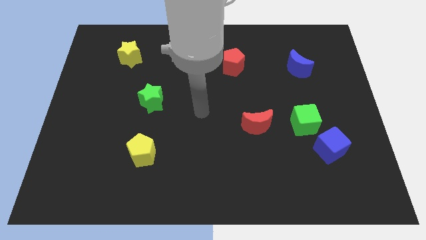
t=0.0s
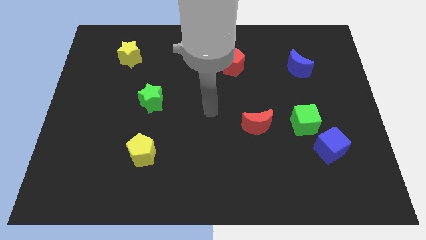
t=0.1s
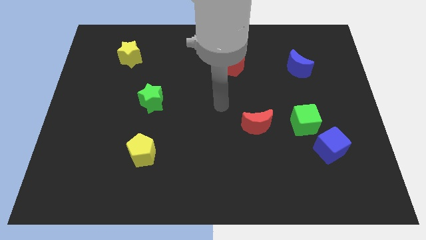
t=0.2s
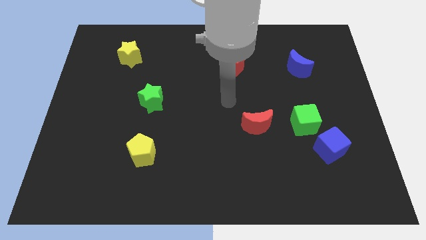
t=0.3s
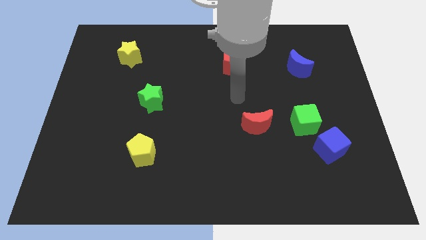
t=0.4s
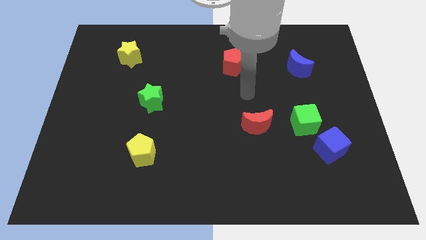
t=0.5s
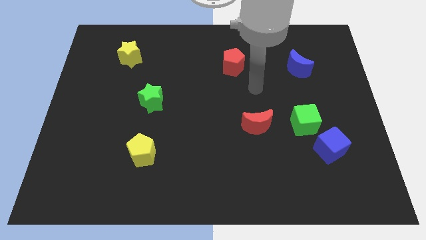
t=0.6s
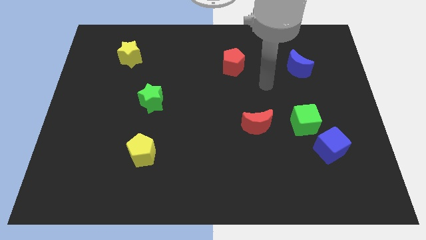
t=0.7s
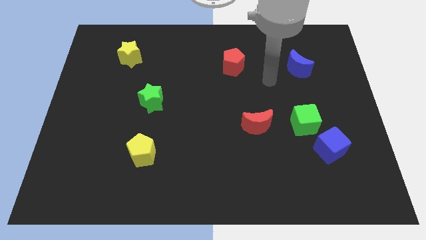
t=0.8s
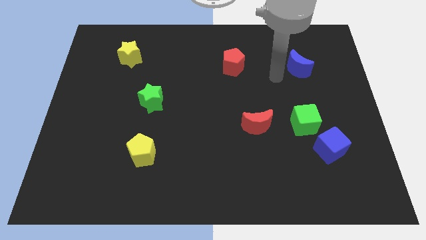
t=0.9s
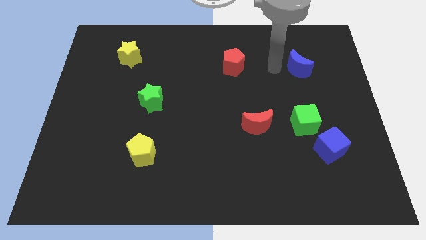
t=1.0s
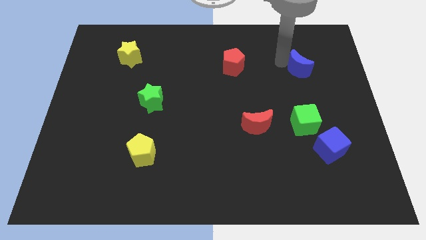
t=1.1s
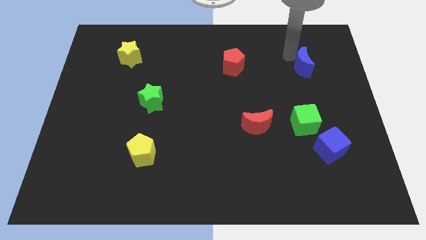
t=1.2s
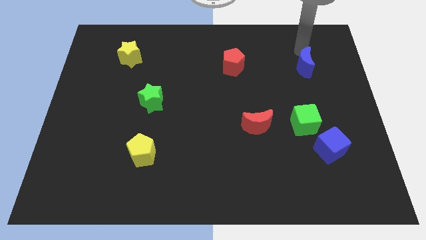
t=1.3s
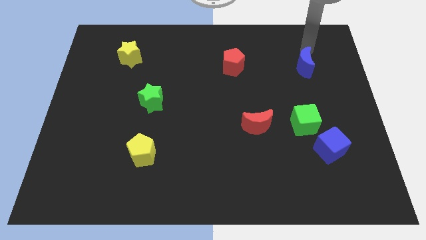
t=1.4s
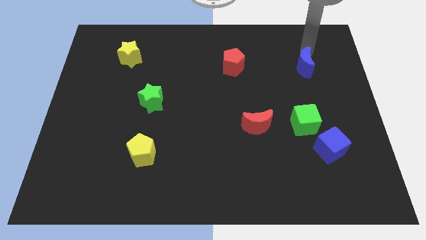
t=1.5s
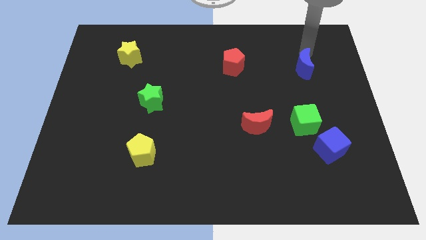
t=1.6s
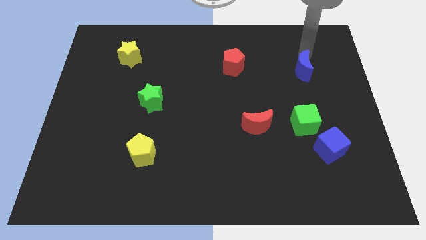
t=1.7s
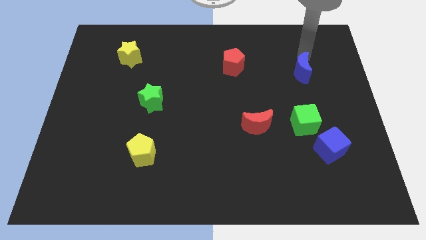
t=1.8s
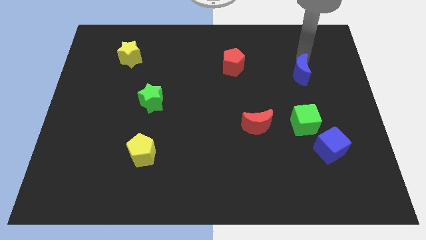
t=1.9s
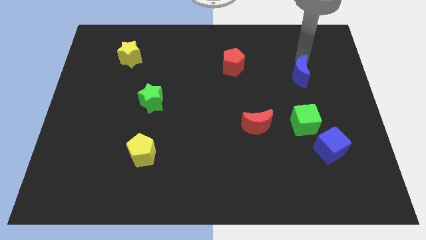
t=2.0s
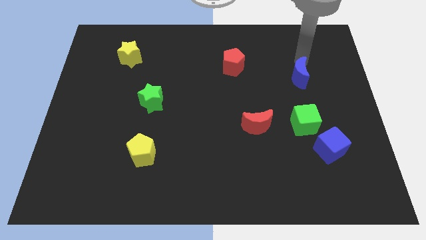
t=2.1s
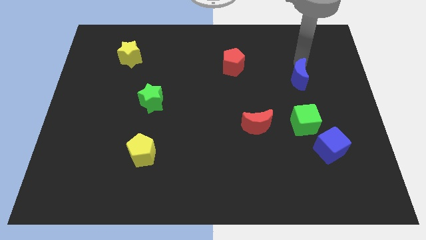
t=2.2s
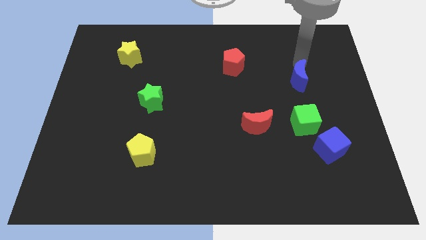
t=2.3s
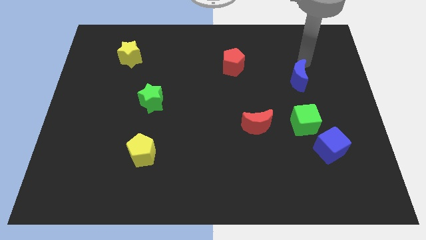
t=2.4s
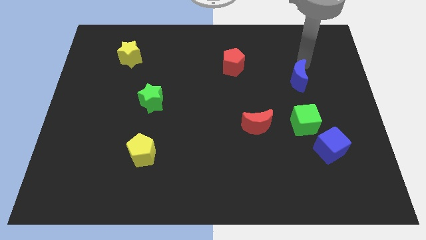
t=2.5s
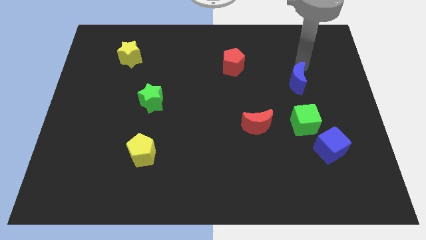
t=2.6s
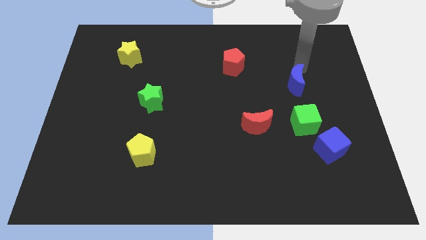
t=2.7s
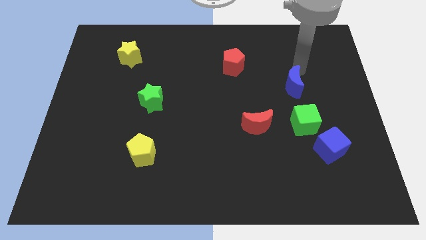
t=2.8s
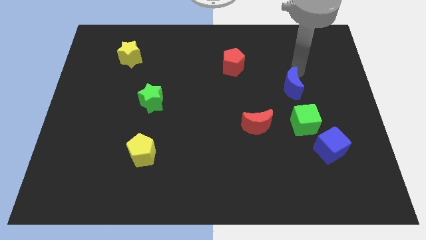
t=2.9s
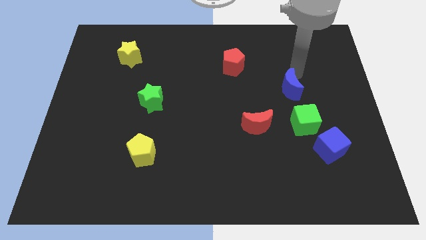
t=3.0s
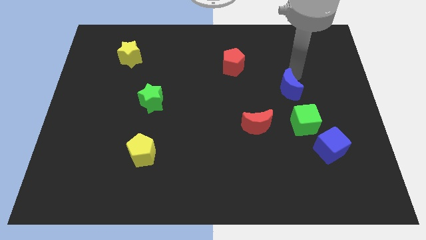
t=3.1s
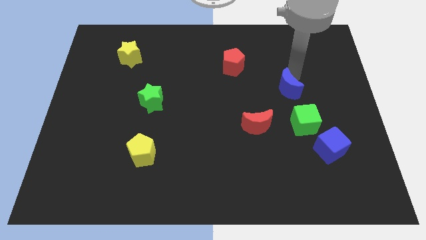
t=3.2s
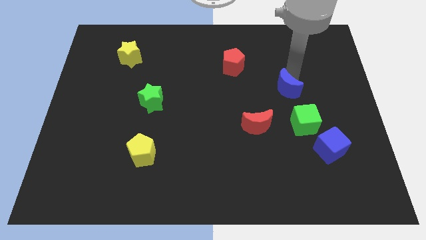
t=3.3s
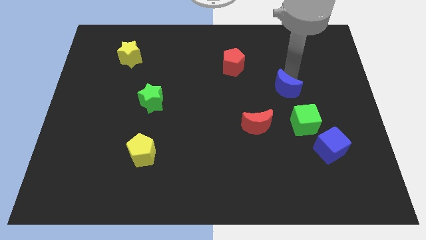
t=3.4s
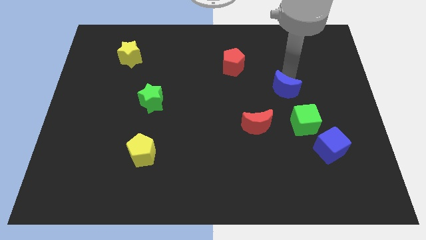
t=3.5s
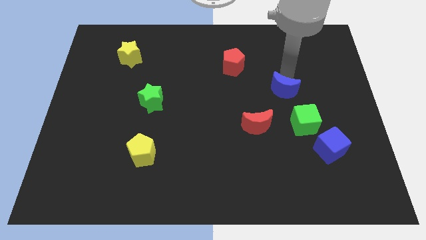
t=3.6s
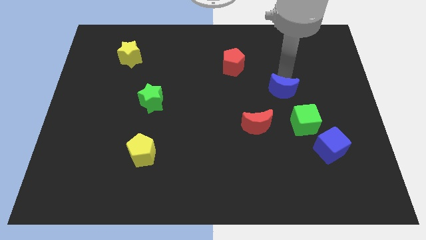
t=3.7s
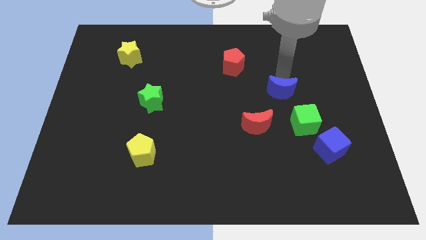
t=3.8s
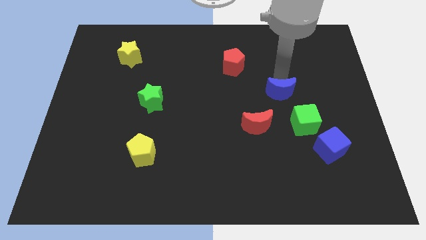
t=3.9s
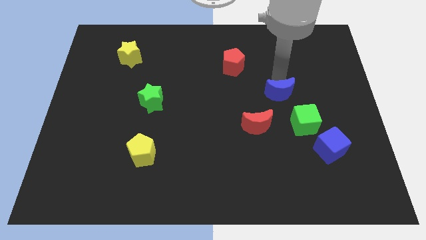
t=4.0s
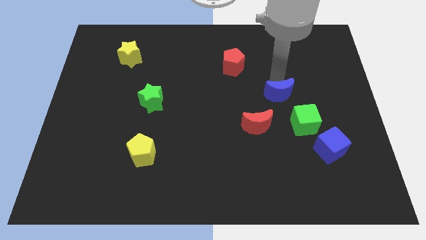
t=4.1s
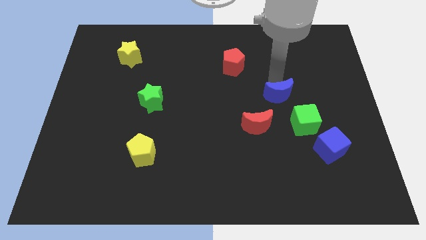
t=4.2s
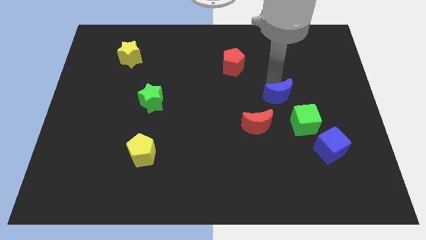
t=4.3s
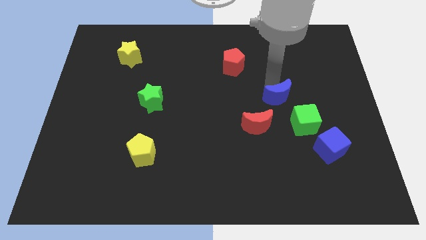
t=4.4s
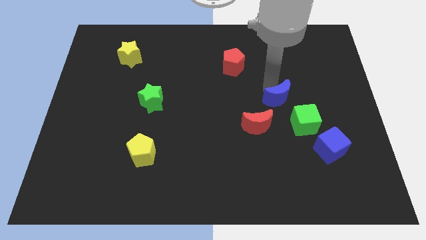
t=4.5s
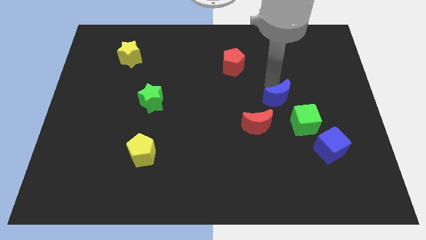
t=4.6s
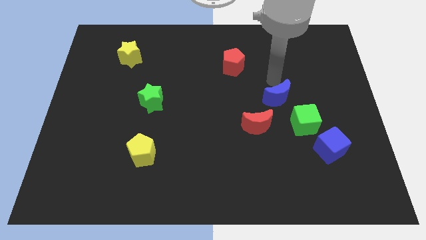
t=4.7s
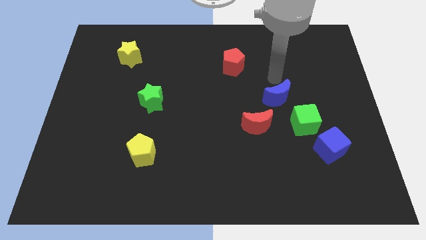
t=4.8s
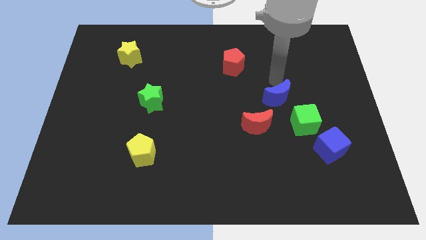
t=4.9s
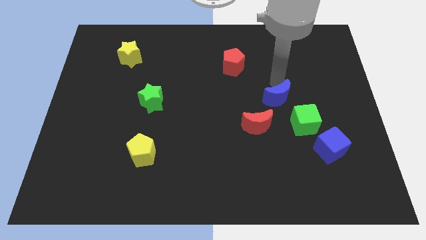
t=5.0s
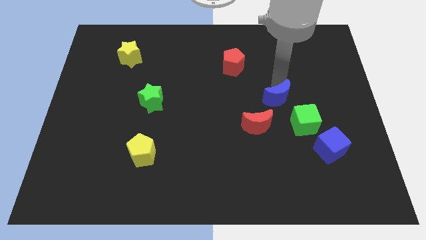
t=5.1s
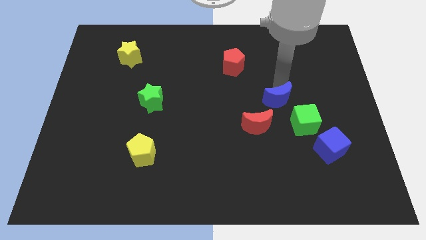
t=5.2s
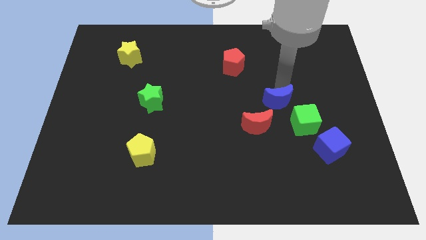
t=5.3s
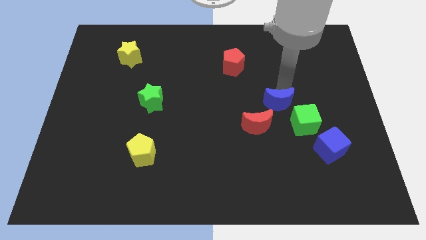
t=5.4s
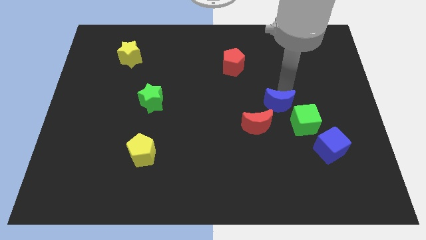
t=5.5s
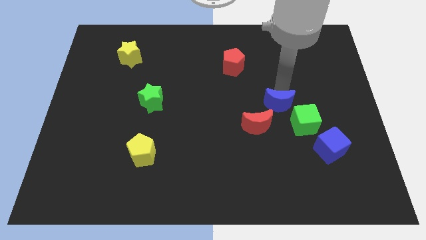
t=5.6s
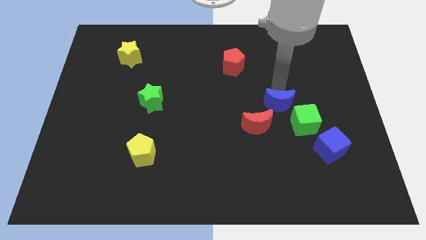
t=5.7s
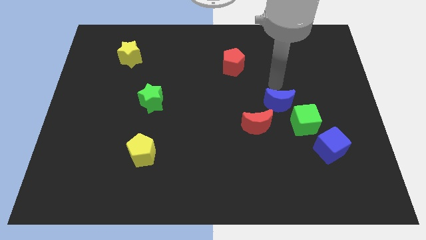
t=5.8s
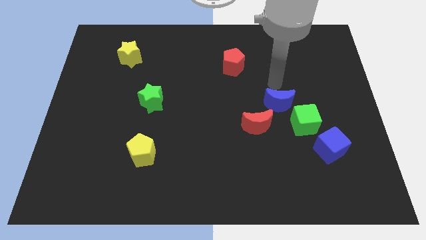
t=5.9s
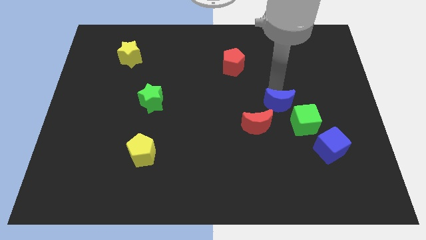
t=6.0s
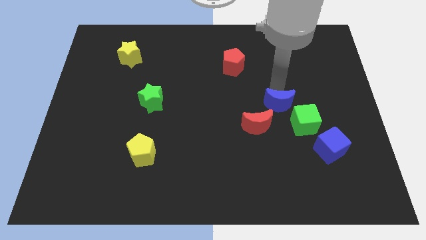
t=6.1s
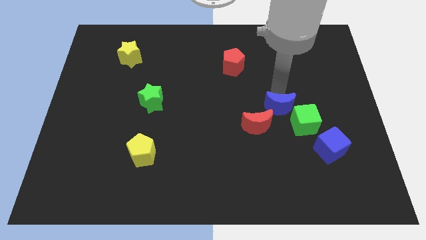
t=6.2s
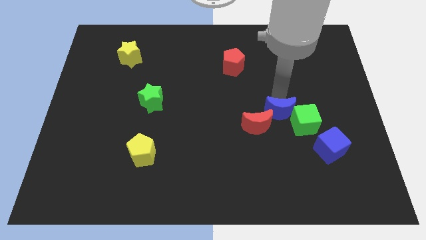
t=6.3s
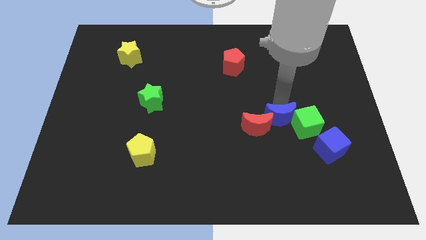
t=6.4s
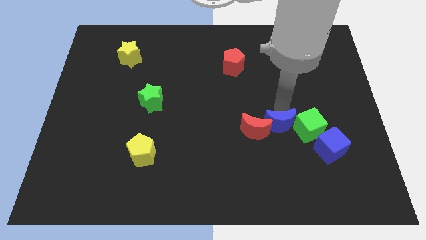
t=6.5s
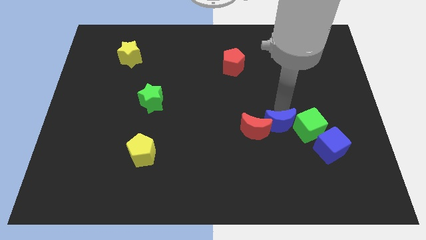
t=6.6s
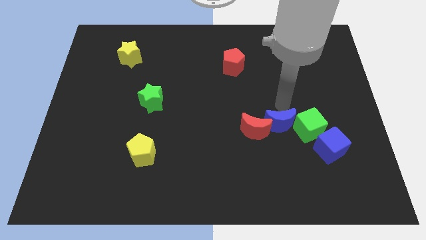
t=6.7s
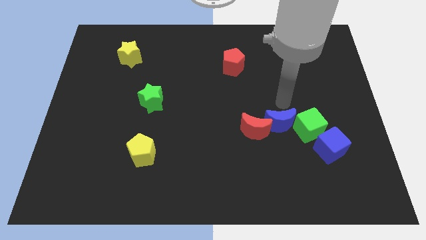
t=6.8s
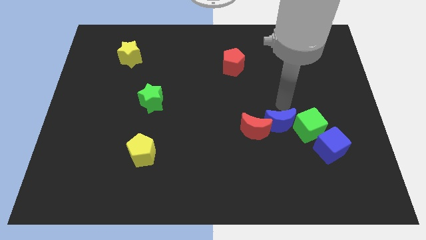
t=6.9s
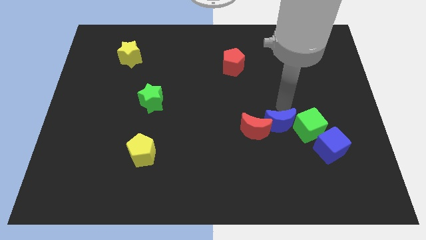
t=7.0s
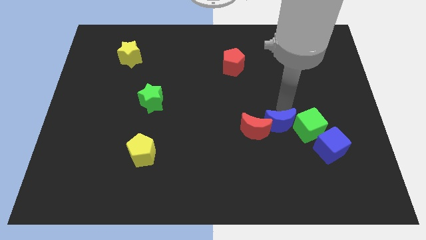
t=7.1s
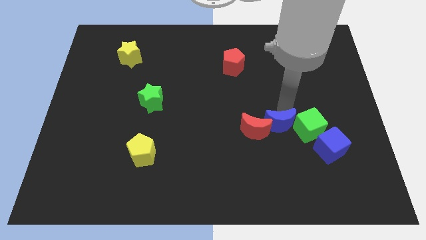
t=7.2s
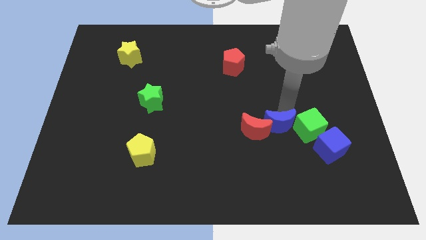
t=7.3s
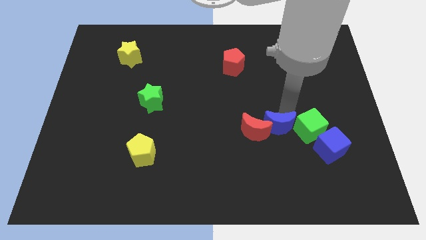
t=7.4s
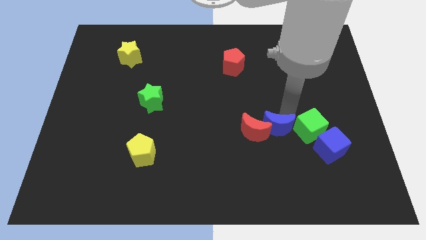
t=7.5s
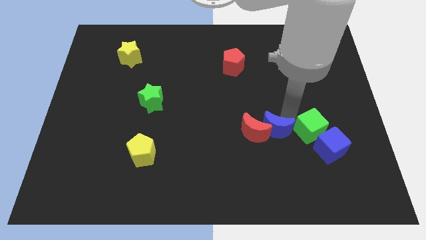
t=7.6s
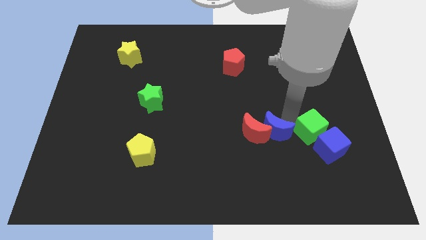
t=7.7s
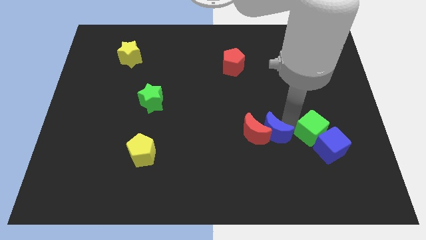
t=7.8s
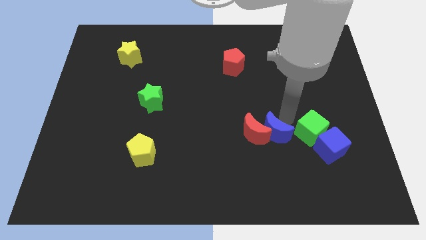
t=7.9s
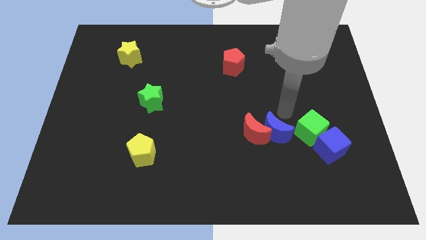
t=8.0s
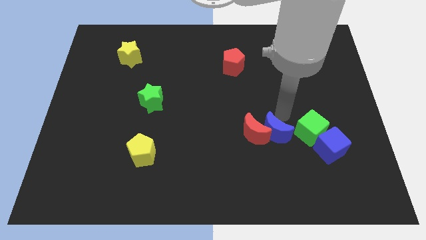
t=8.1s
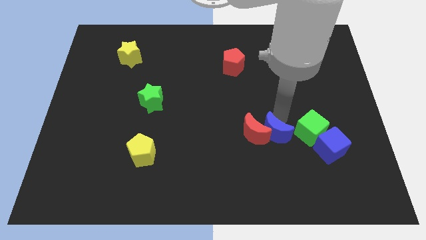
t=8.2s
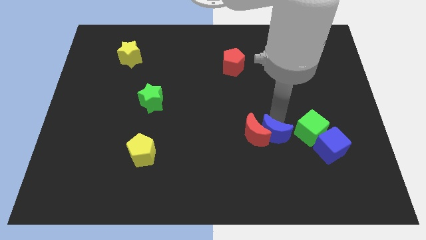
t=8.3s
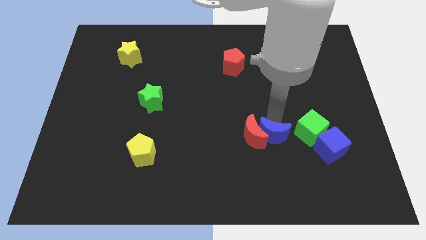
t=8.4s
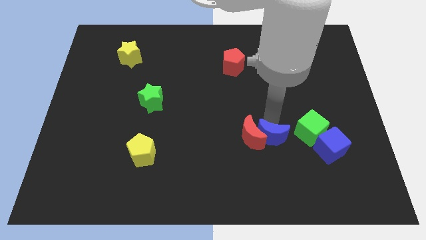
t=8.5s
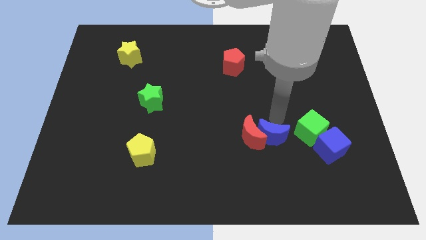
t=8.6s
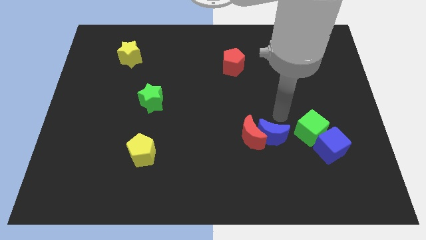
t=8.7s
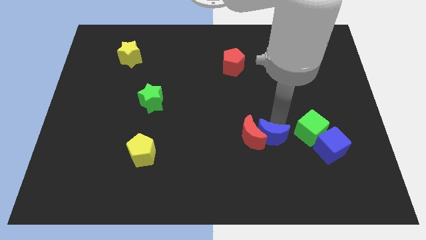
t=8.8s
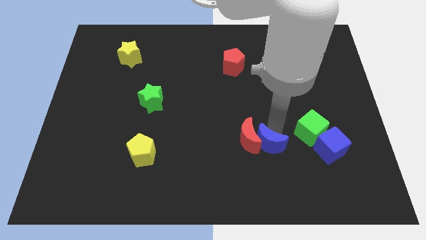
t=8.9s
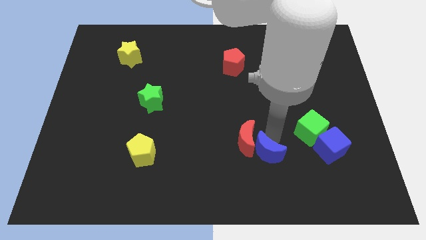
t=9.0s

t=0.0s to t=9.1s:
move the blue moon to the bottom side of the red moon
